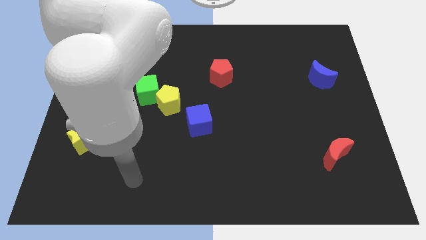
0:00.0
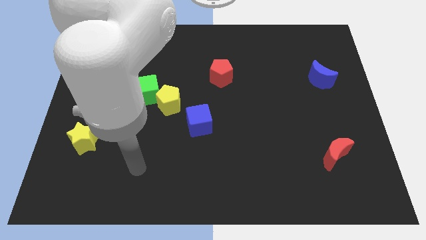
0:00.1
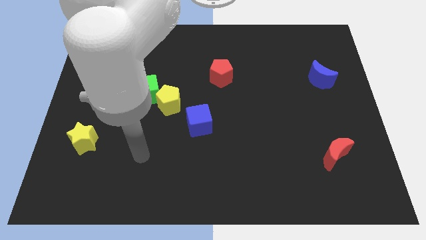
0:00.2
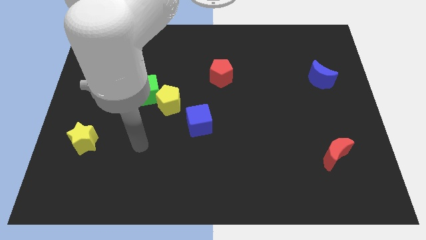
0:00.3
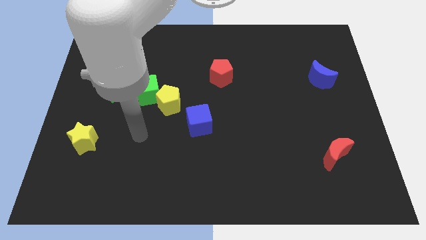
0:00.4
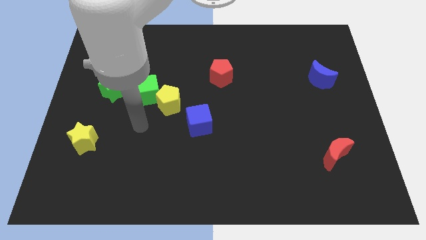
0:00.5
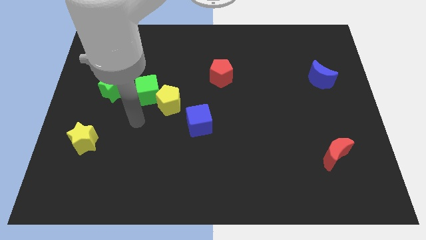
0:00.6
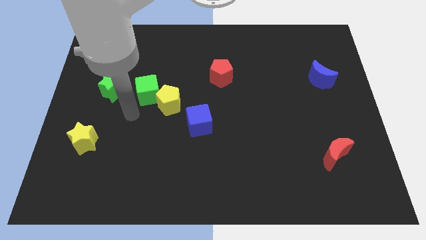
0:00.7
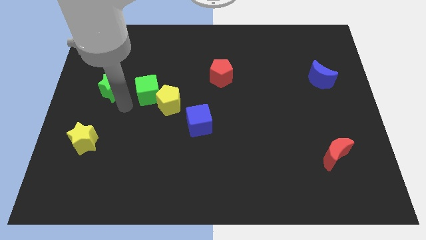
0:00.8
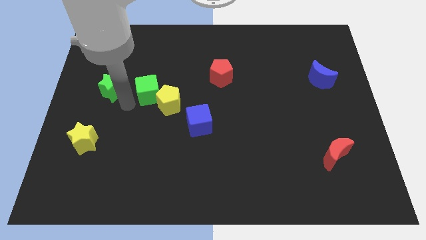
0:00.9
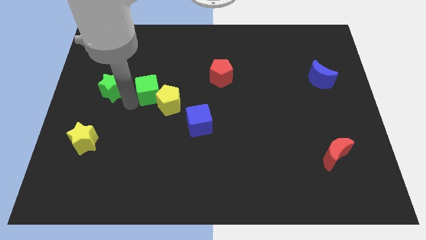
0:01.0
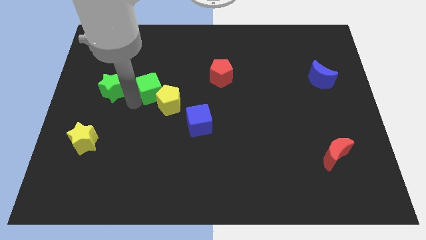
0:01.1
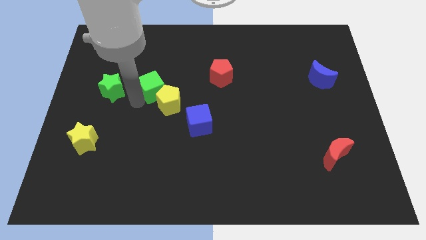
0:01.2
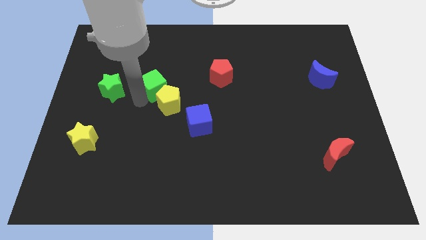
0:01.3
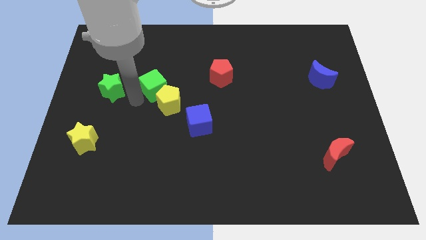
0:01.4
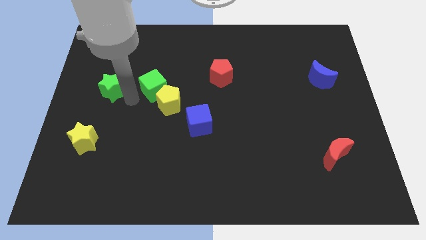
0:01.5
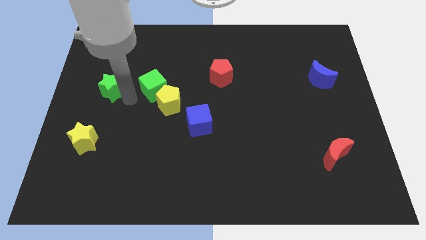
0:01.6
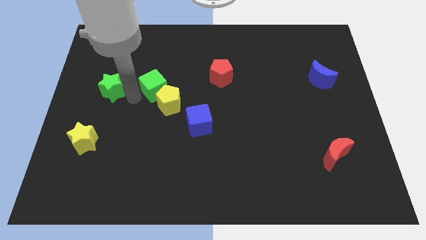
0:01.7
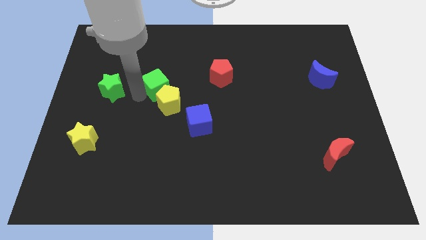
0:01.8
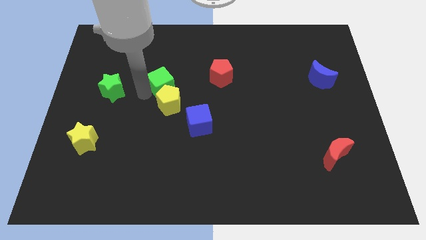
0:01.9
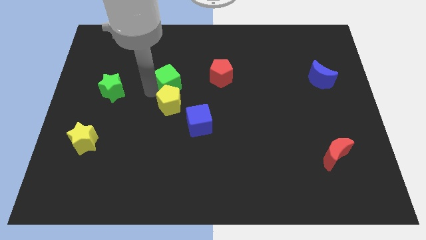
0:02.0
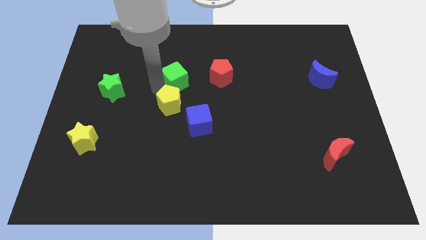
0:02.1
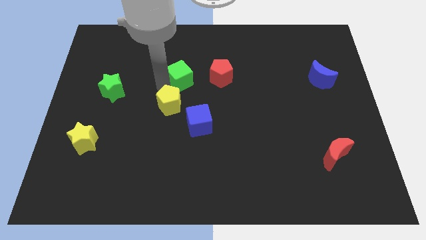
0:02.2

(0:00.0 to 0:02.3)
separate the green cube from the yellow pentagon and green star

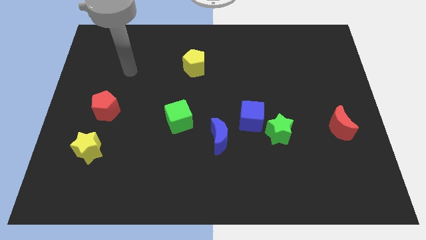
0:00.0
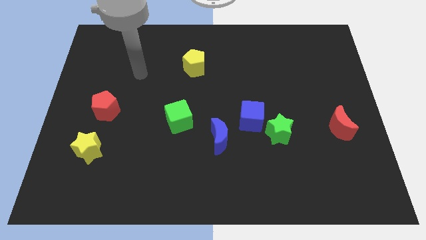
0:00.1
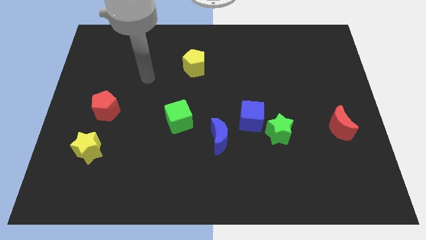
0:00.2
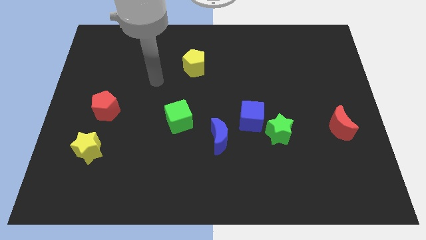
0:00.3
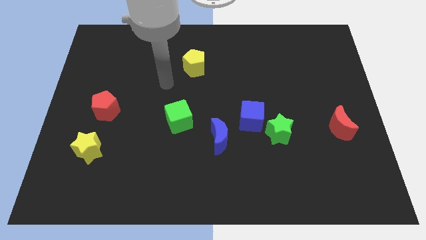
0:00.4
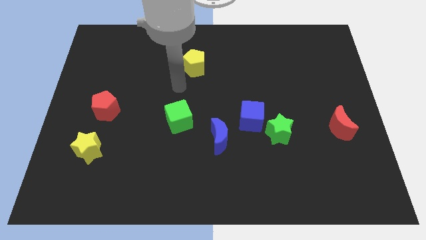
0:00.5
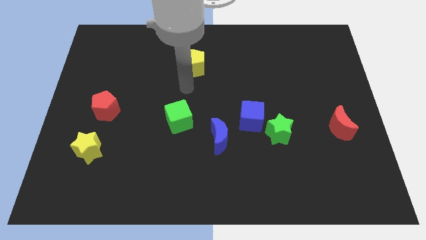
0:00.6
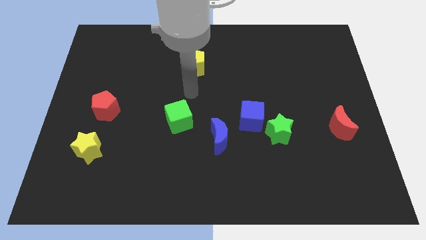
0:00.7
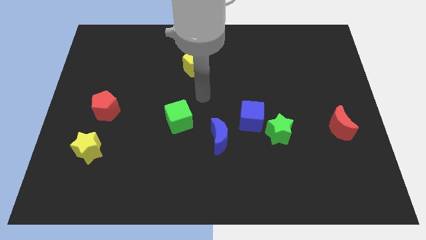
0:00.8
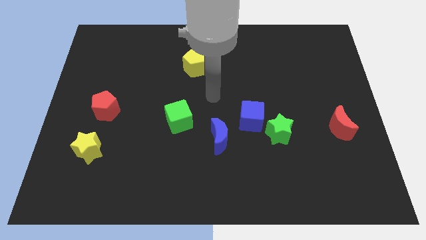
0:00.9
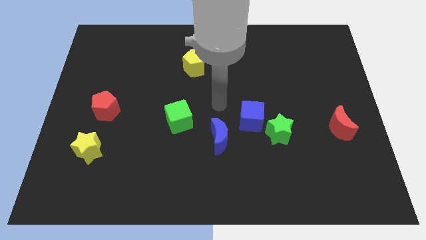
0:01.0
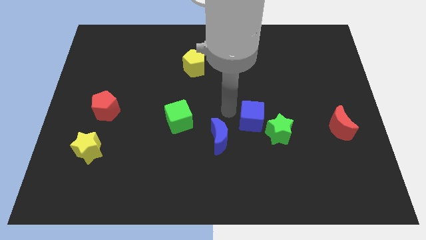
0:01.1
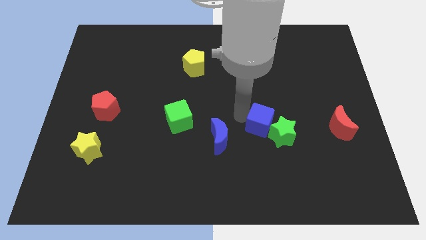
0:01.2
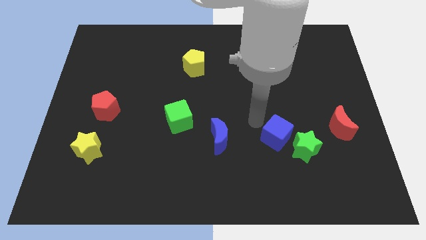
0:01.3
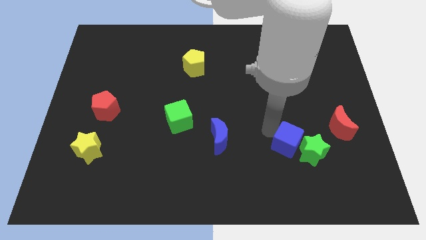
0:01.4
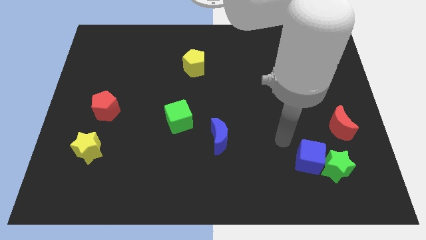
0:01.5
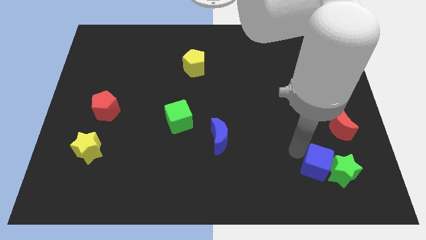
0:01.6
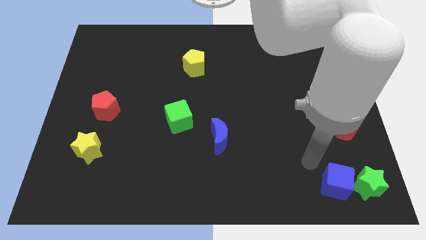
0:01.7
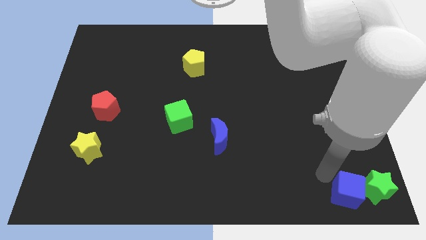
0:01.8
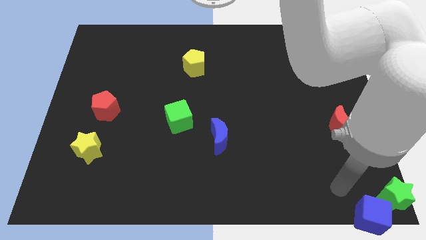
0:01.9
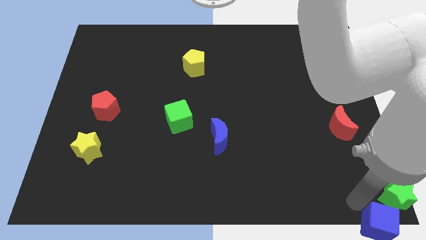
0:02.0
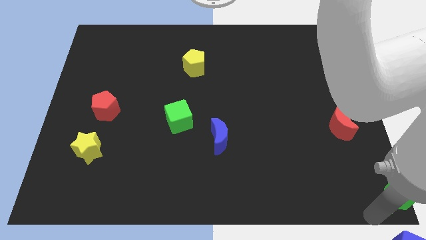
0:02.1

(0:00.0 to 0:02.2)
move the green star away from the blue cube

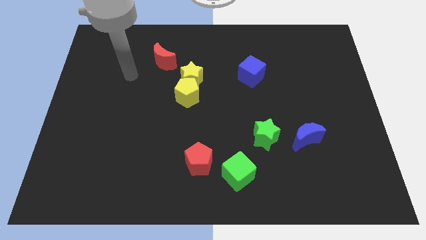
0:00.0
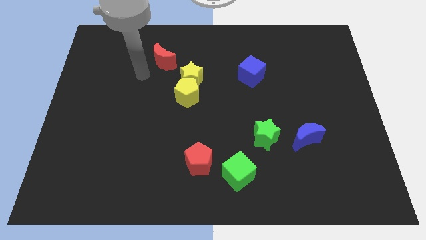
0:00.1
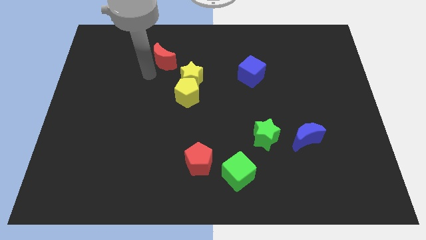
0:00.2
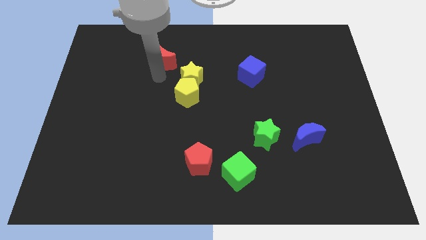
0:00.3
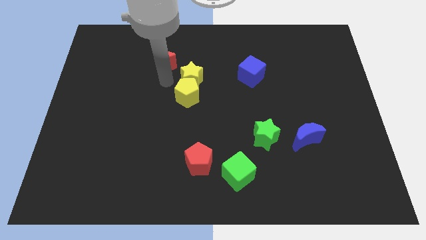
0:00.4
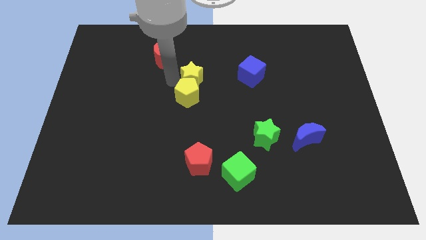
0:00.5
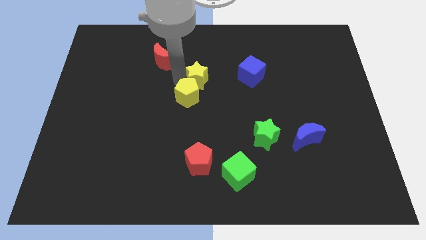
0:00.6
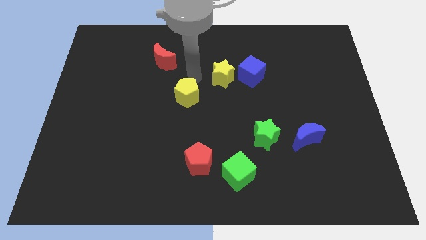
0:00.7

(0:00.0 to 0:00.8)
separate the yellow pentagon from the yellow star

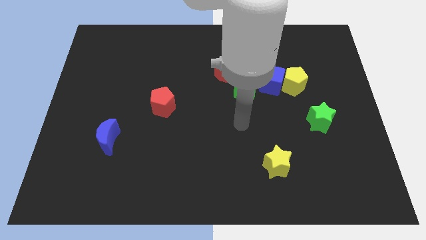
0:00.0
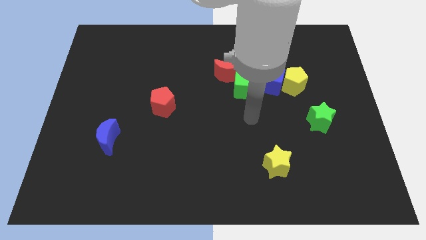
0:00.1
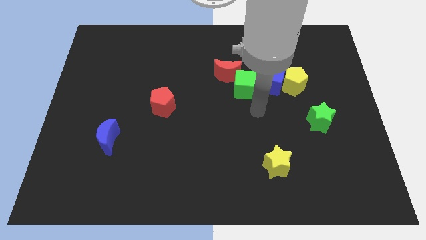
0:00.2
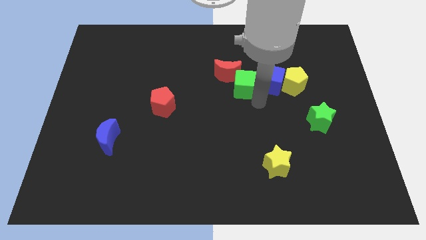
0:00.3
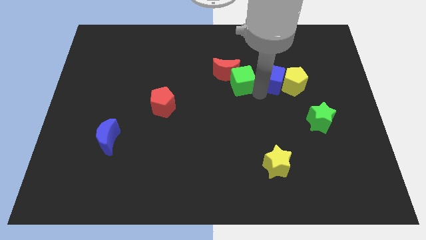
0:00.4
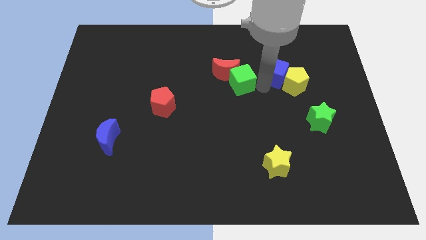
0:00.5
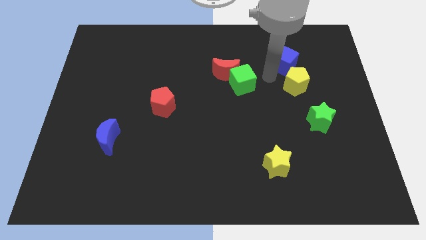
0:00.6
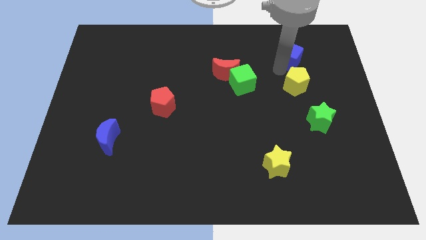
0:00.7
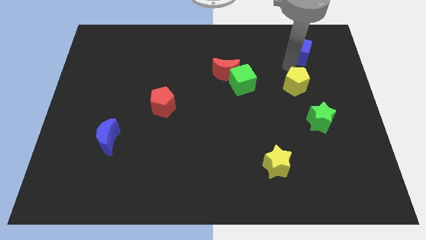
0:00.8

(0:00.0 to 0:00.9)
move the yellow pentagon away from the blue cube

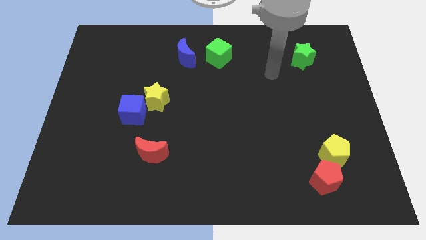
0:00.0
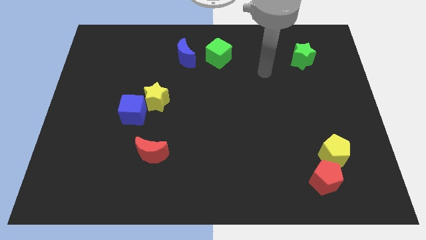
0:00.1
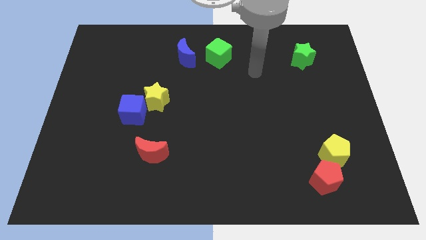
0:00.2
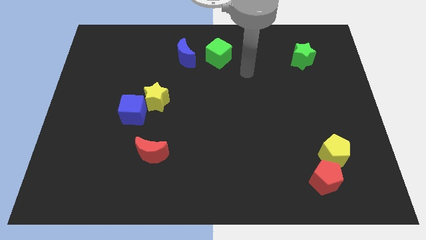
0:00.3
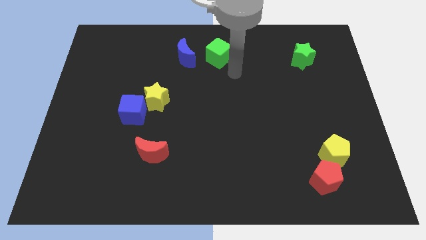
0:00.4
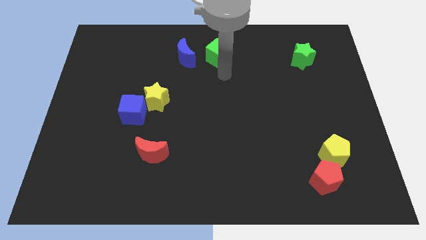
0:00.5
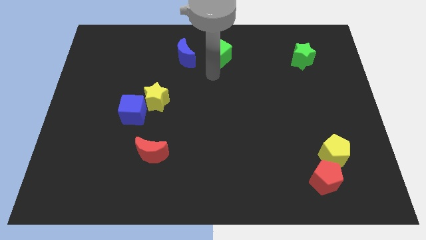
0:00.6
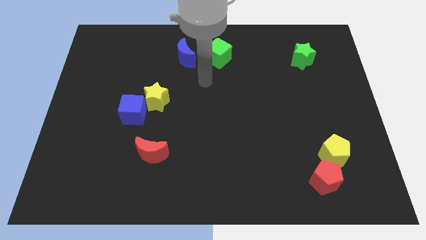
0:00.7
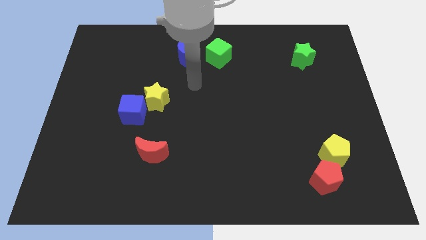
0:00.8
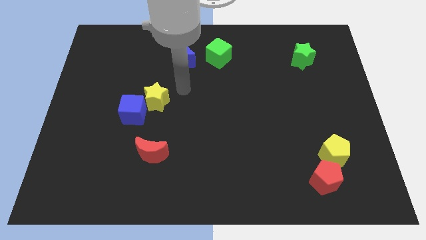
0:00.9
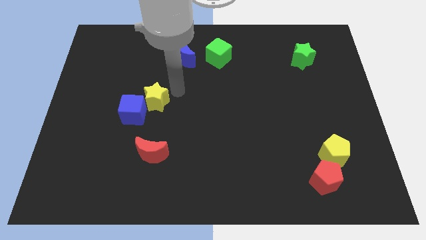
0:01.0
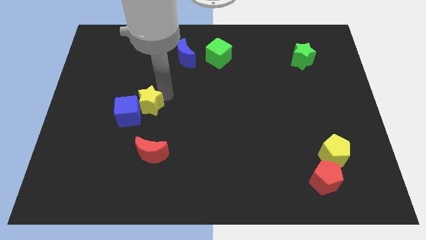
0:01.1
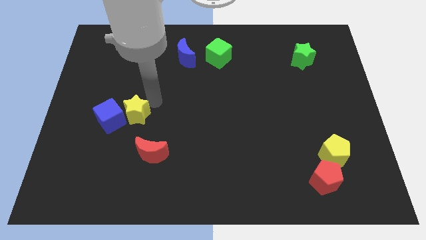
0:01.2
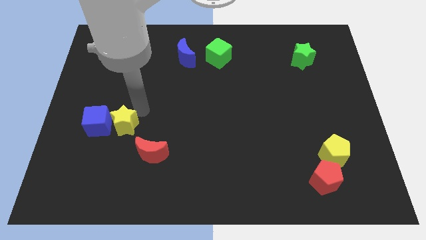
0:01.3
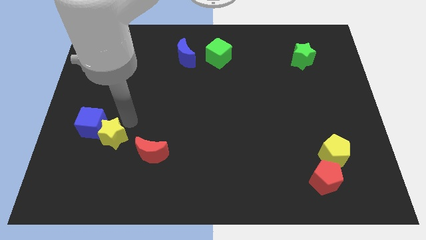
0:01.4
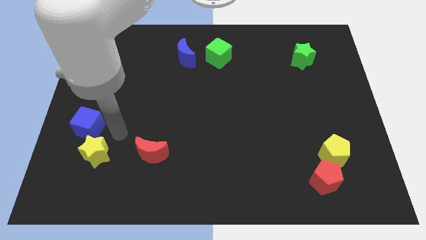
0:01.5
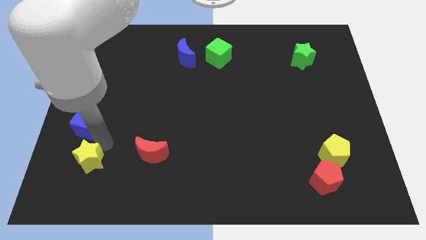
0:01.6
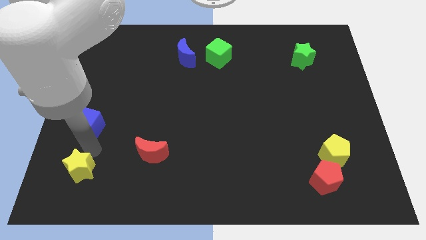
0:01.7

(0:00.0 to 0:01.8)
move the blue cube away from the yellow star

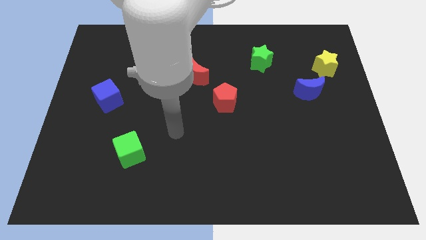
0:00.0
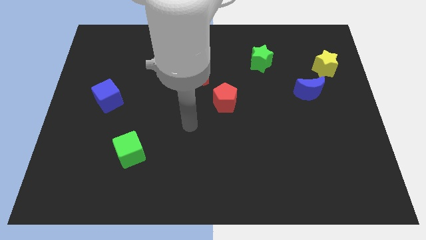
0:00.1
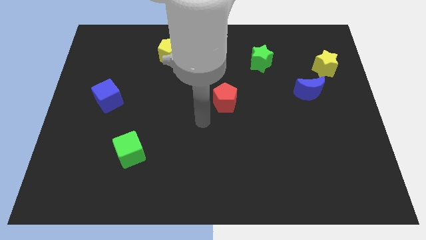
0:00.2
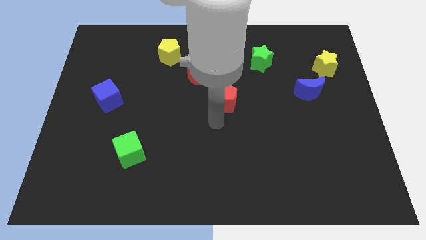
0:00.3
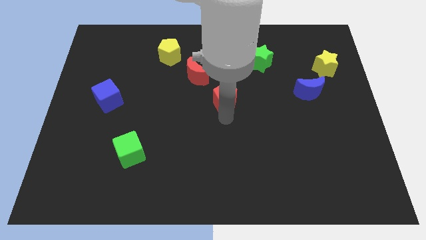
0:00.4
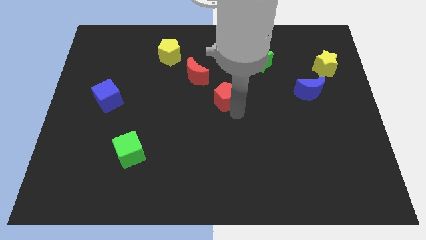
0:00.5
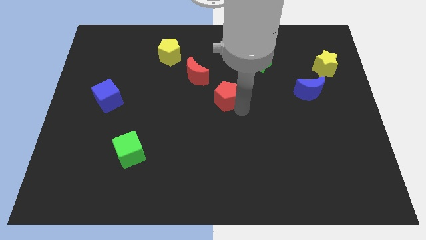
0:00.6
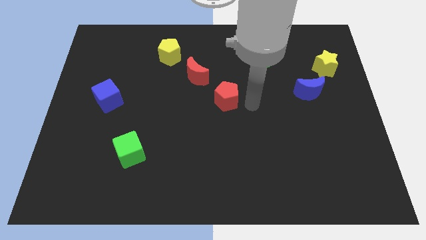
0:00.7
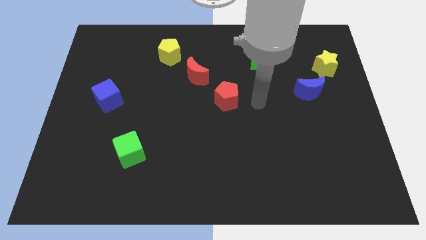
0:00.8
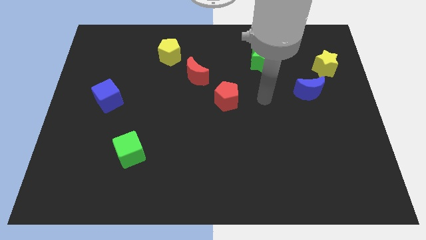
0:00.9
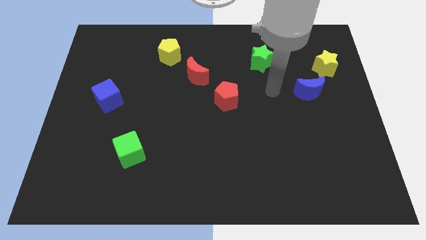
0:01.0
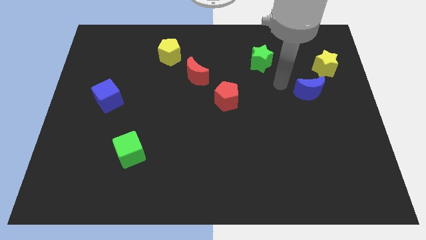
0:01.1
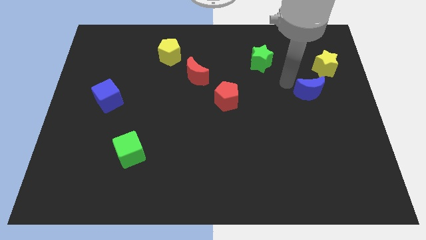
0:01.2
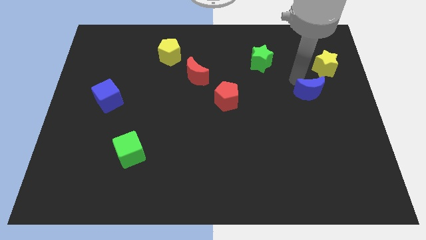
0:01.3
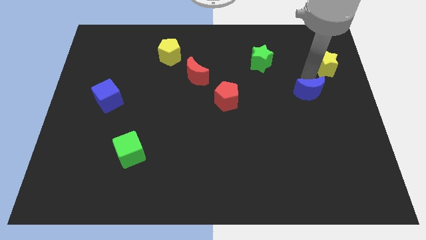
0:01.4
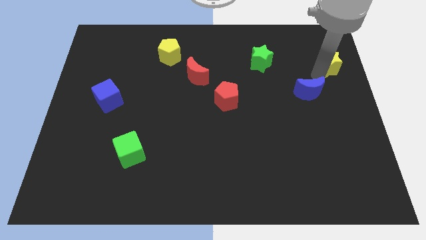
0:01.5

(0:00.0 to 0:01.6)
pull the blue moon apart from the yellow star
